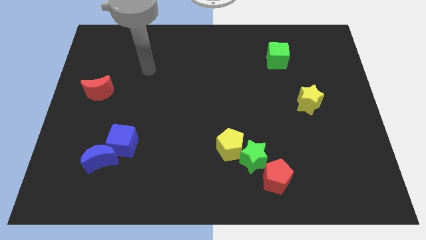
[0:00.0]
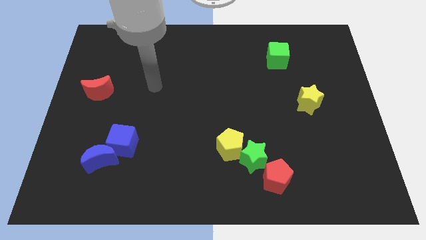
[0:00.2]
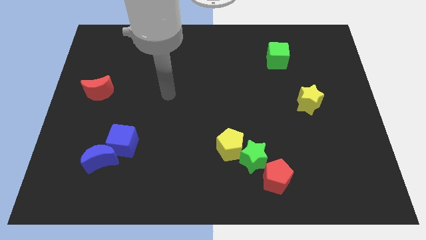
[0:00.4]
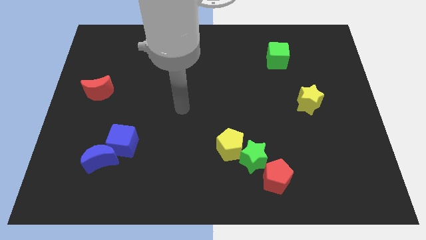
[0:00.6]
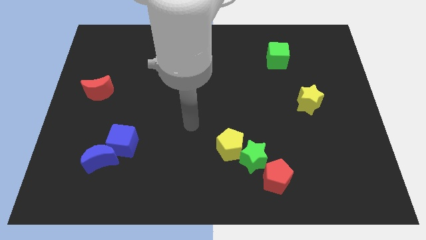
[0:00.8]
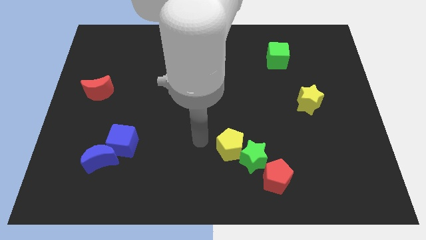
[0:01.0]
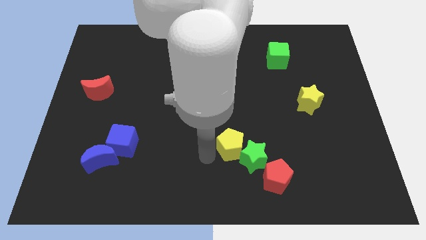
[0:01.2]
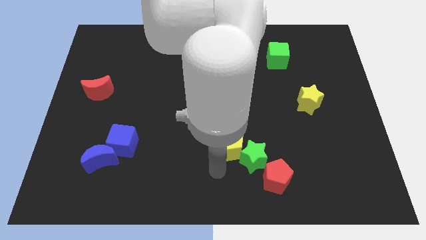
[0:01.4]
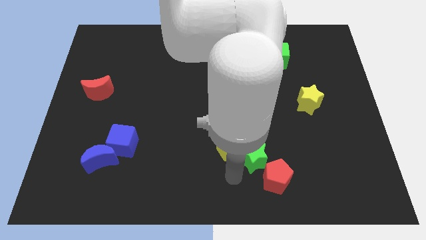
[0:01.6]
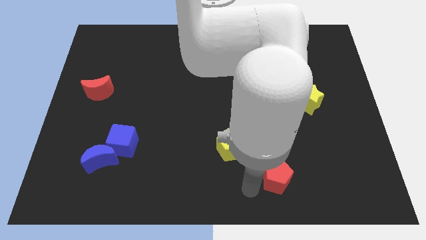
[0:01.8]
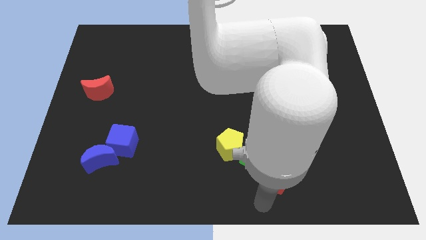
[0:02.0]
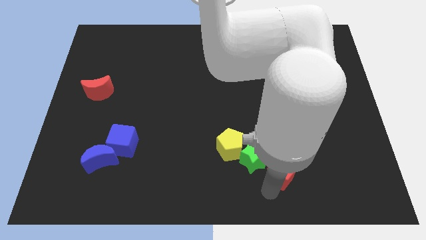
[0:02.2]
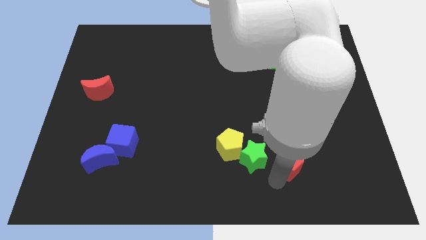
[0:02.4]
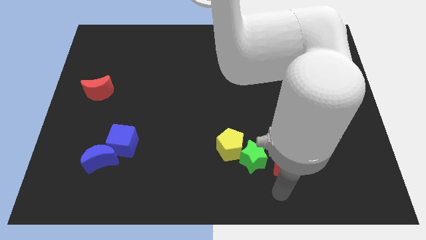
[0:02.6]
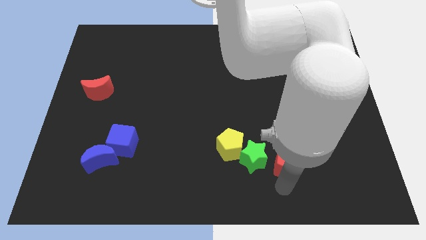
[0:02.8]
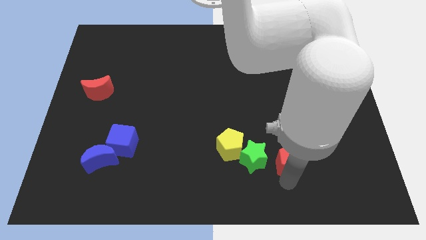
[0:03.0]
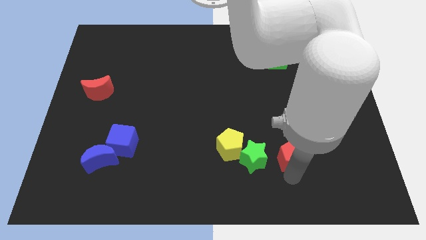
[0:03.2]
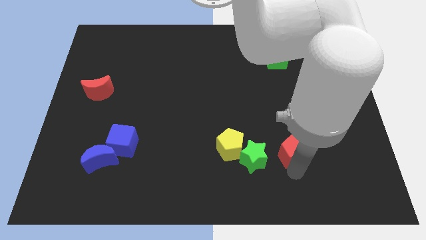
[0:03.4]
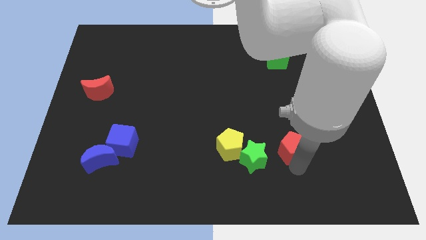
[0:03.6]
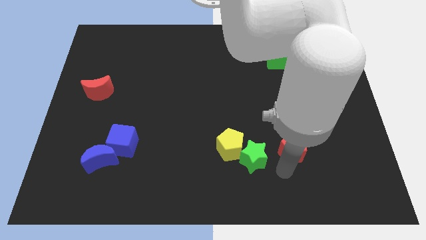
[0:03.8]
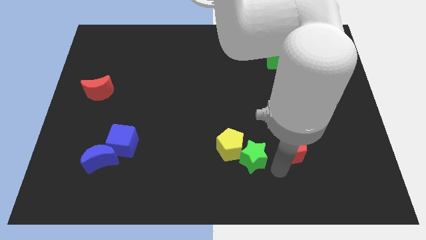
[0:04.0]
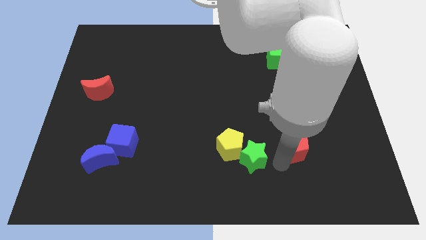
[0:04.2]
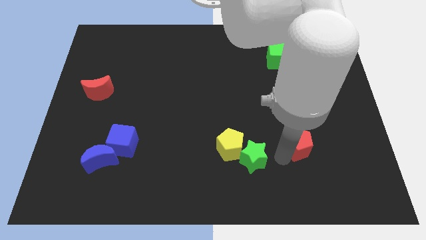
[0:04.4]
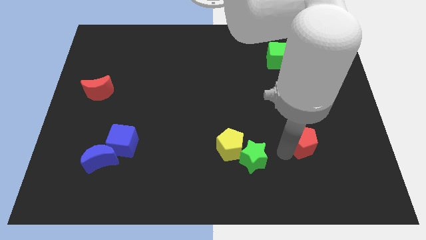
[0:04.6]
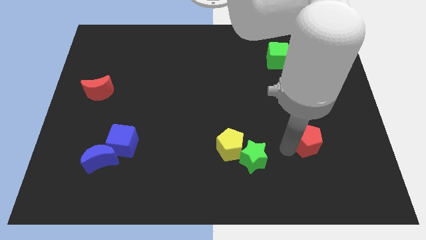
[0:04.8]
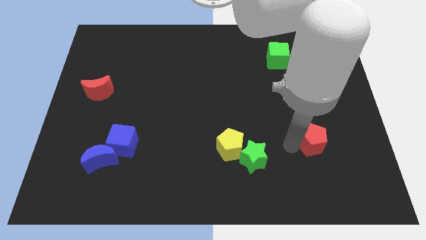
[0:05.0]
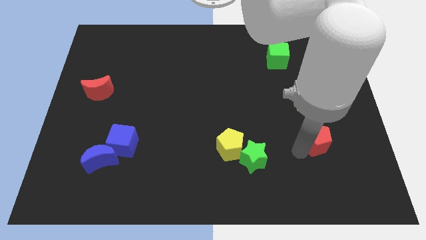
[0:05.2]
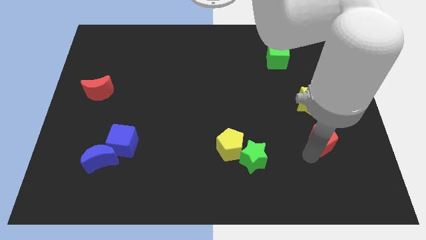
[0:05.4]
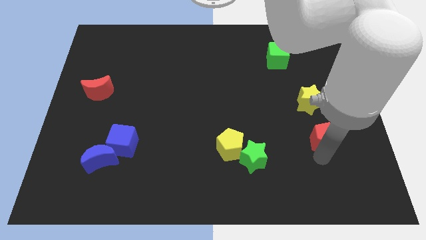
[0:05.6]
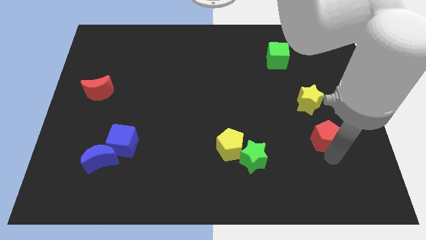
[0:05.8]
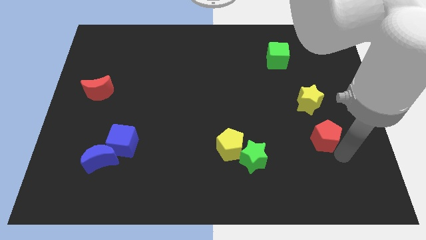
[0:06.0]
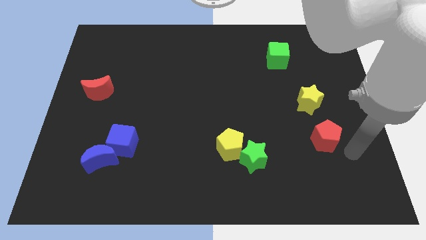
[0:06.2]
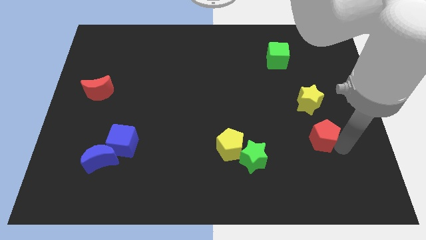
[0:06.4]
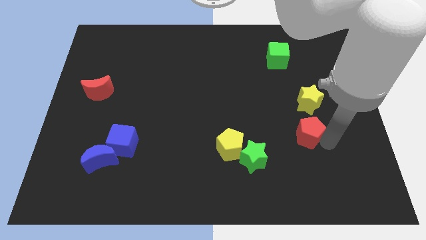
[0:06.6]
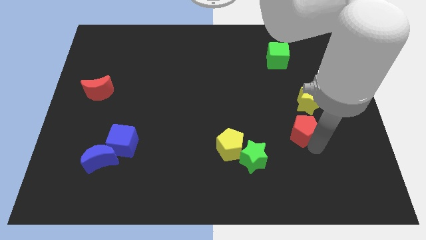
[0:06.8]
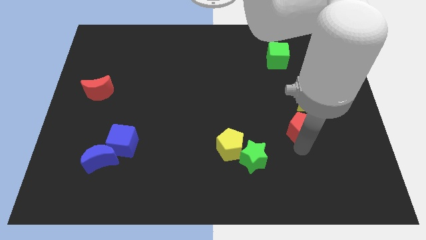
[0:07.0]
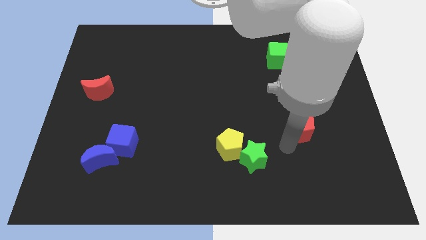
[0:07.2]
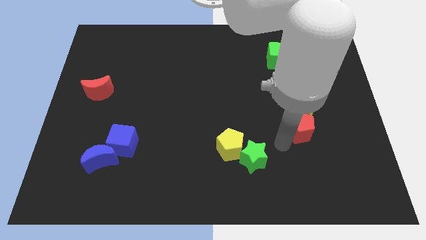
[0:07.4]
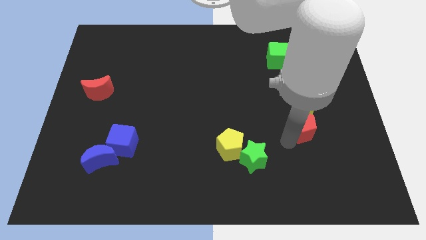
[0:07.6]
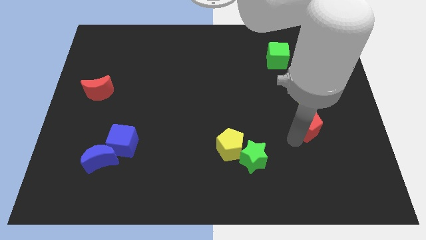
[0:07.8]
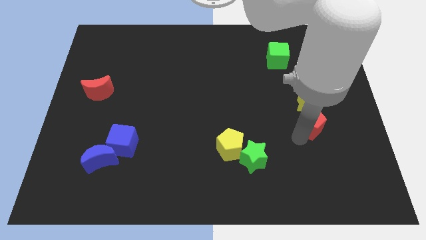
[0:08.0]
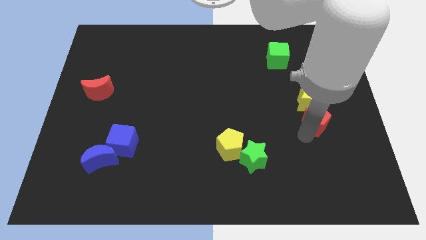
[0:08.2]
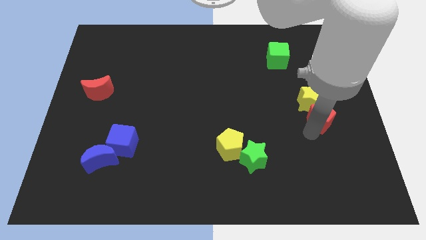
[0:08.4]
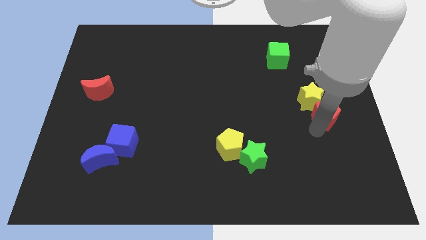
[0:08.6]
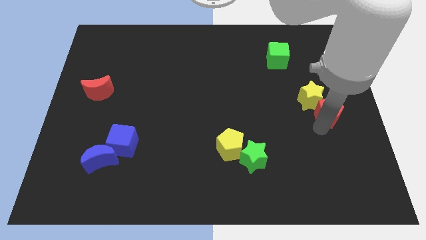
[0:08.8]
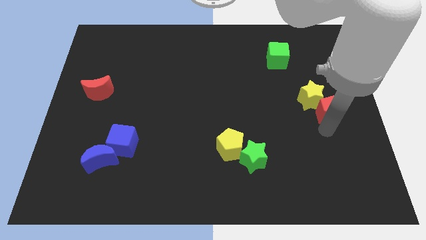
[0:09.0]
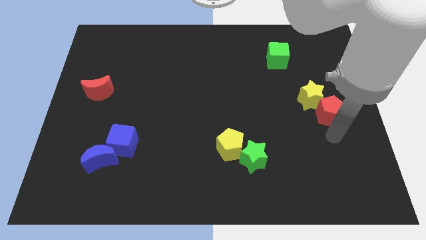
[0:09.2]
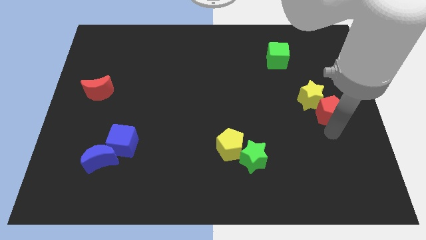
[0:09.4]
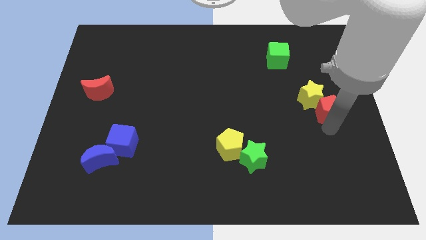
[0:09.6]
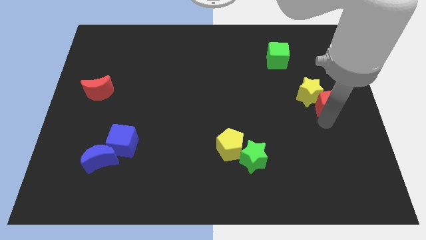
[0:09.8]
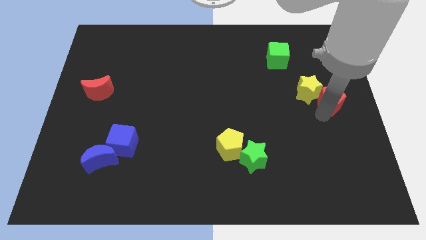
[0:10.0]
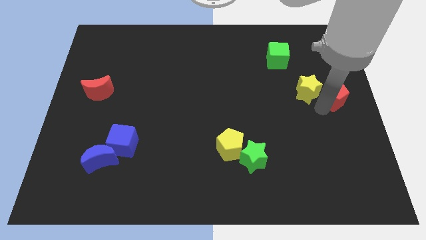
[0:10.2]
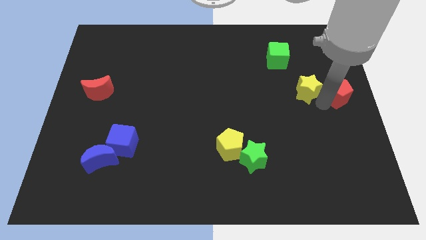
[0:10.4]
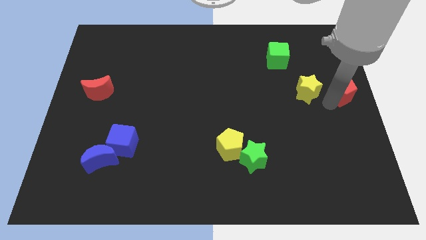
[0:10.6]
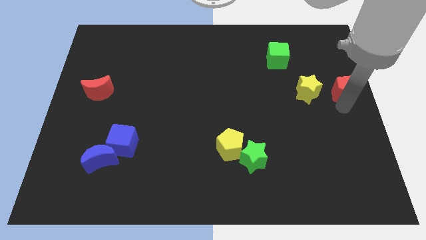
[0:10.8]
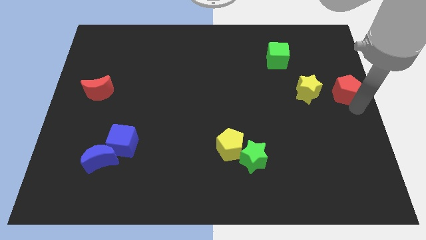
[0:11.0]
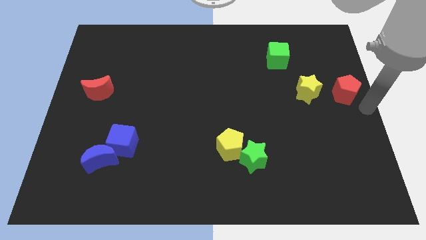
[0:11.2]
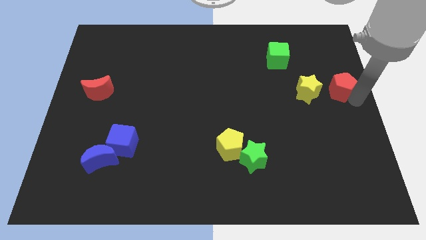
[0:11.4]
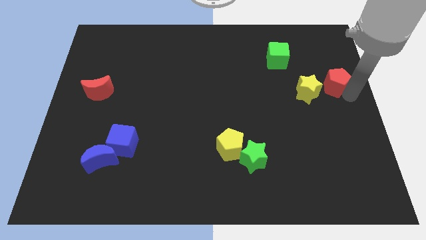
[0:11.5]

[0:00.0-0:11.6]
slide the red pentagon diagonally up and to the right of the yellow star

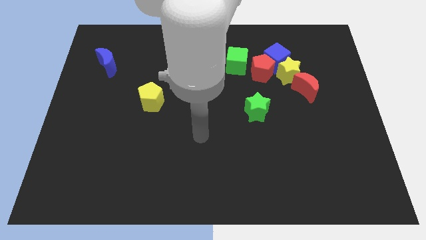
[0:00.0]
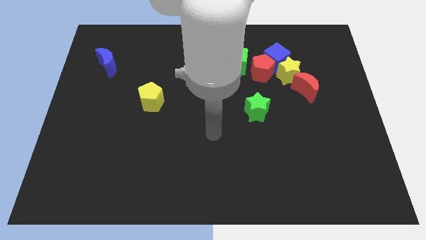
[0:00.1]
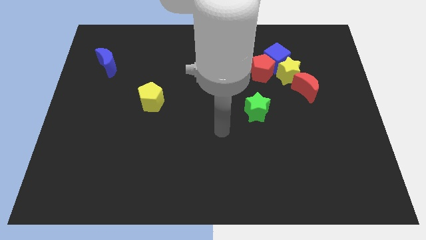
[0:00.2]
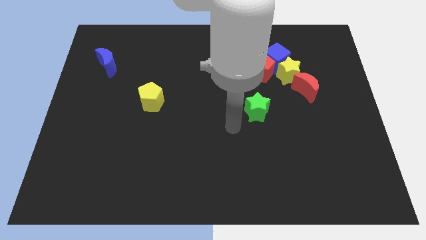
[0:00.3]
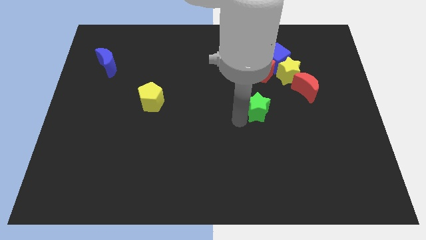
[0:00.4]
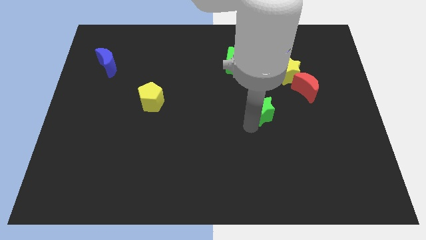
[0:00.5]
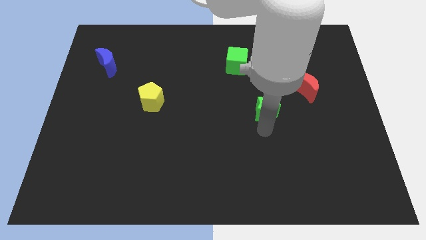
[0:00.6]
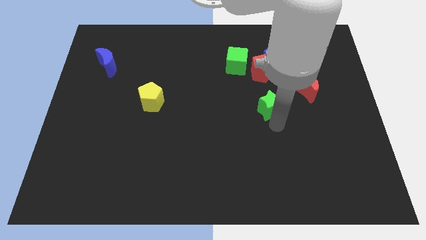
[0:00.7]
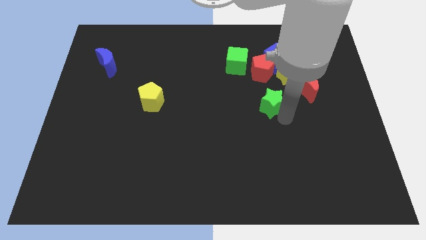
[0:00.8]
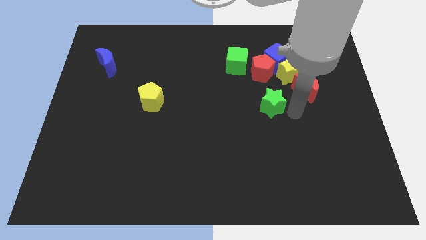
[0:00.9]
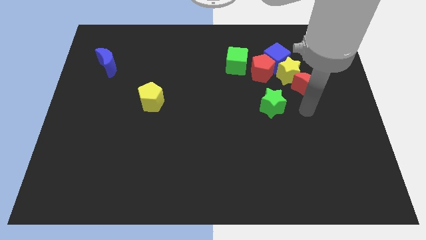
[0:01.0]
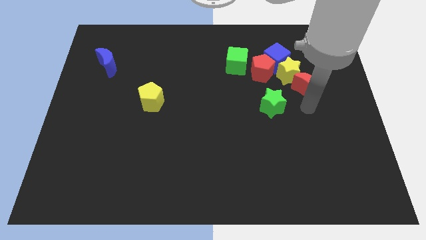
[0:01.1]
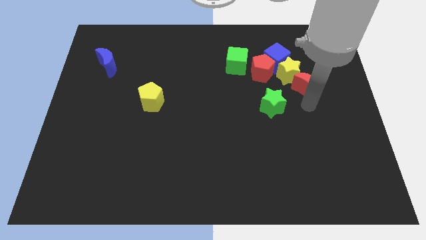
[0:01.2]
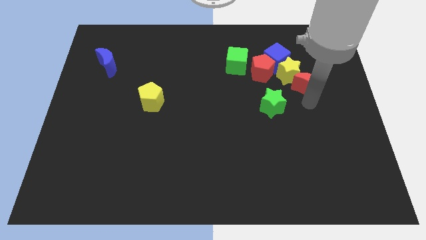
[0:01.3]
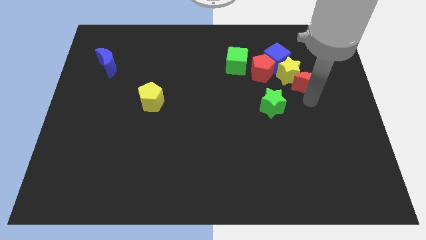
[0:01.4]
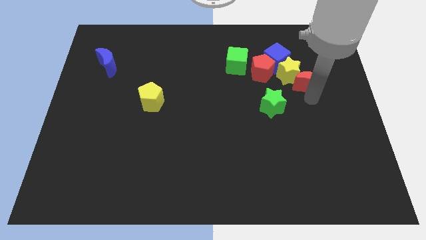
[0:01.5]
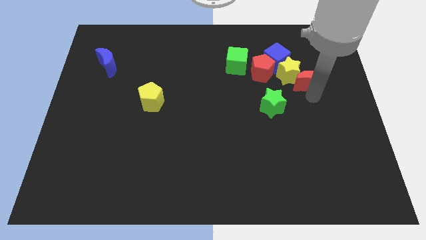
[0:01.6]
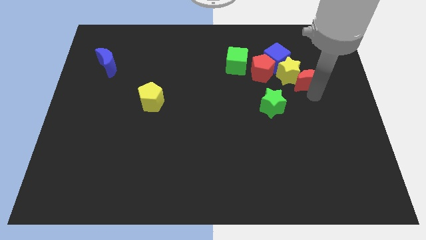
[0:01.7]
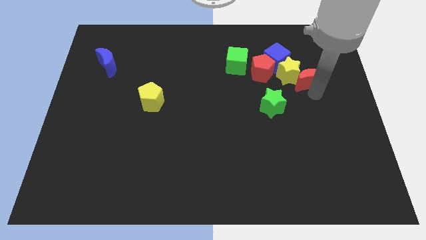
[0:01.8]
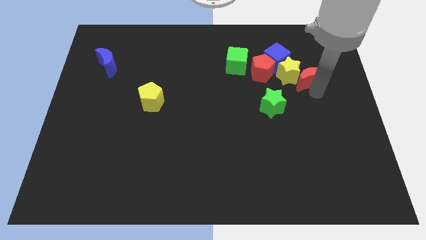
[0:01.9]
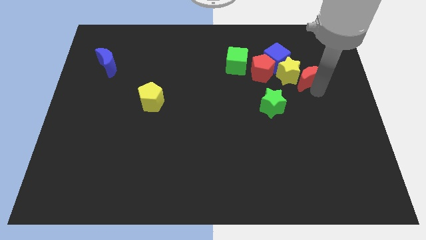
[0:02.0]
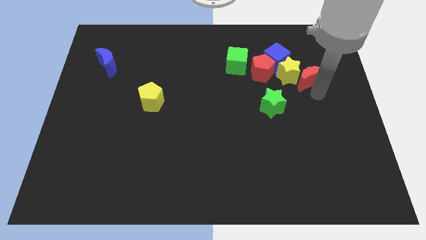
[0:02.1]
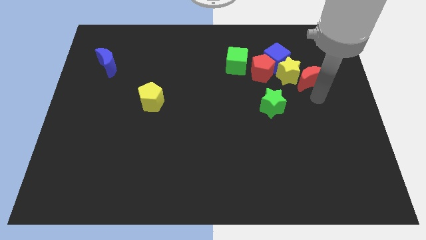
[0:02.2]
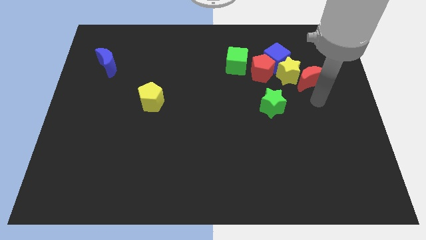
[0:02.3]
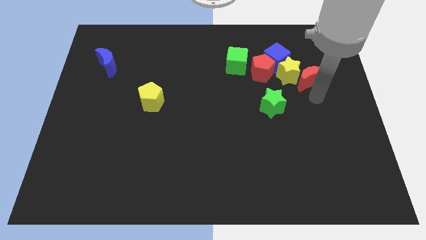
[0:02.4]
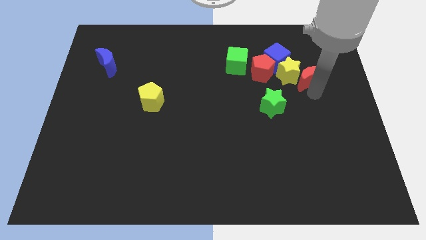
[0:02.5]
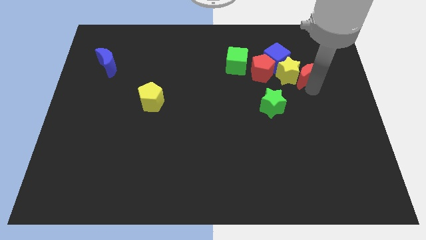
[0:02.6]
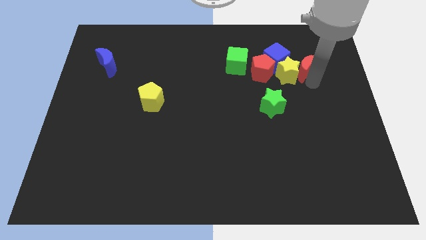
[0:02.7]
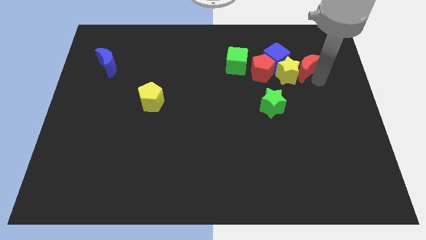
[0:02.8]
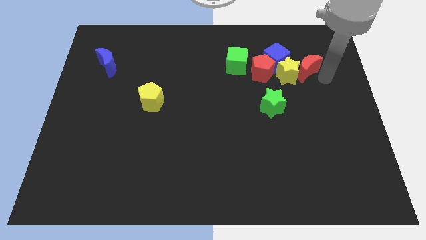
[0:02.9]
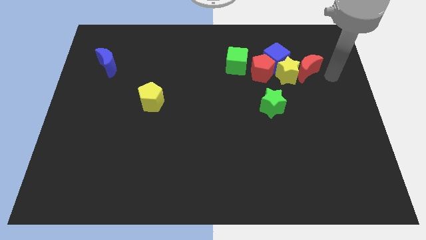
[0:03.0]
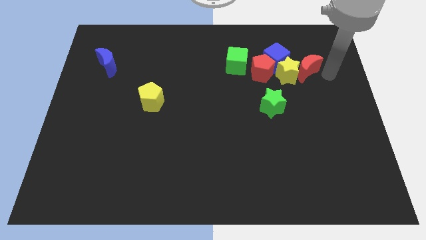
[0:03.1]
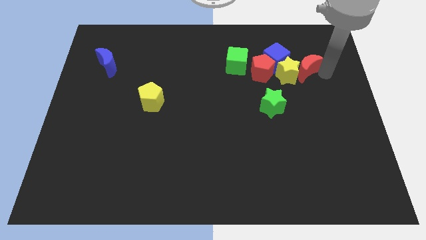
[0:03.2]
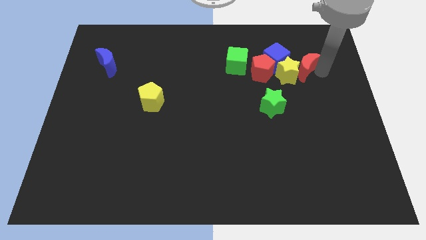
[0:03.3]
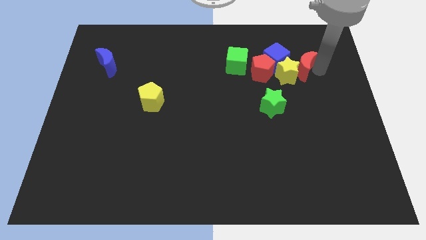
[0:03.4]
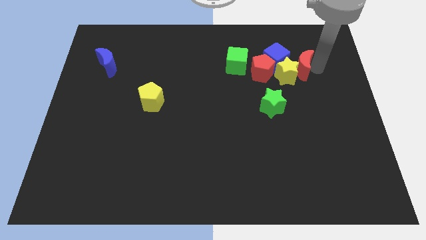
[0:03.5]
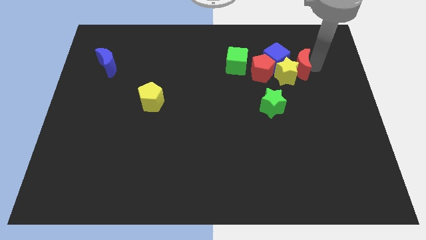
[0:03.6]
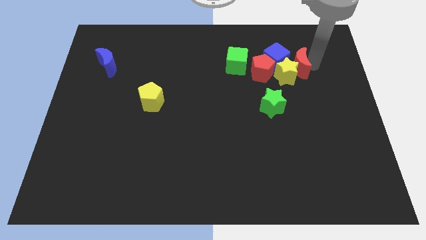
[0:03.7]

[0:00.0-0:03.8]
put the red moon to the right side of the green cube
